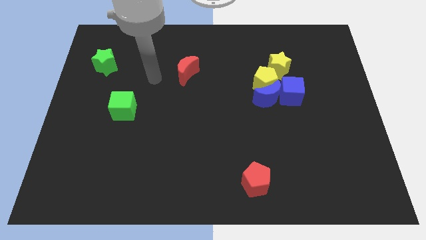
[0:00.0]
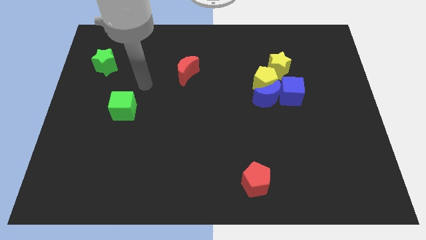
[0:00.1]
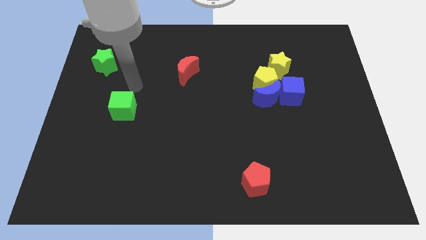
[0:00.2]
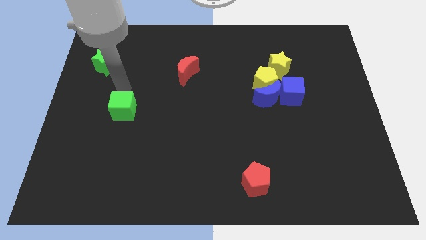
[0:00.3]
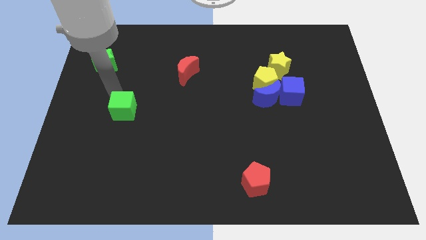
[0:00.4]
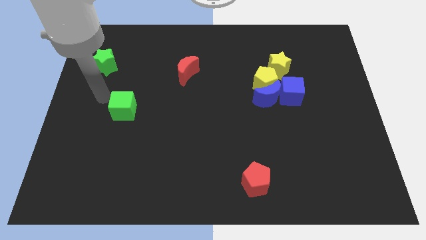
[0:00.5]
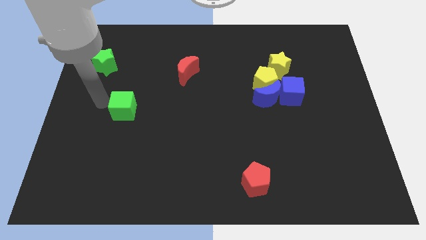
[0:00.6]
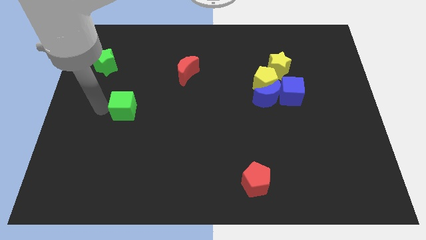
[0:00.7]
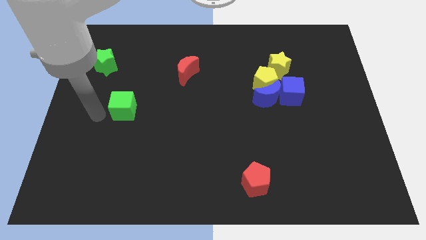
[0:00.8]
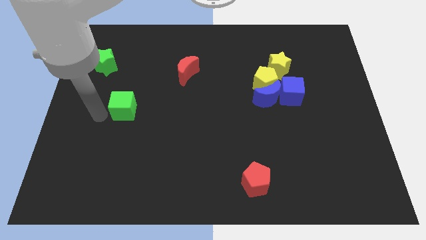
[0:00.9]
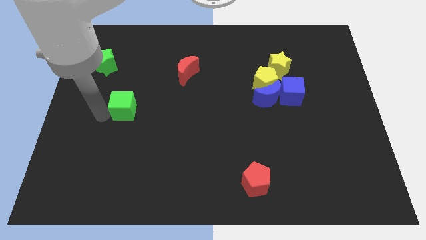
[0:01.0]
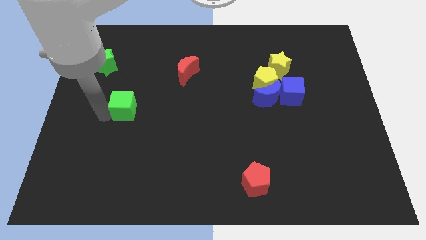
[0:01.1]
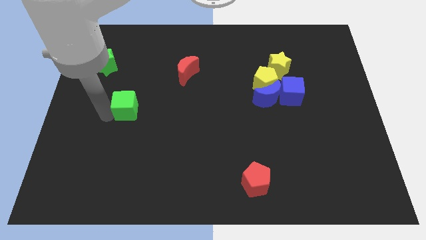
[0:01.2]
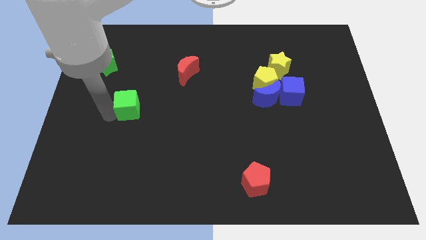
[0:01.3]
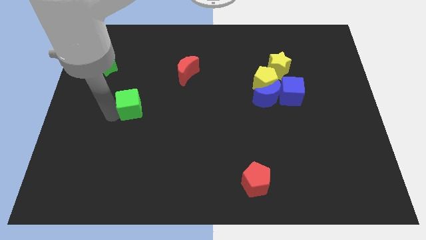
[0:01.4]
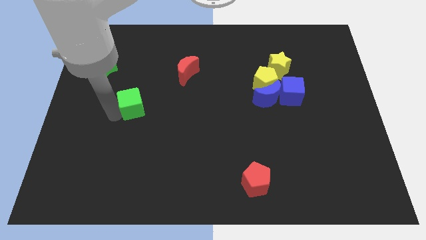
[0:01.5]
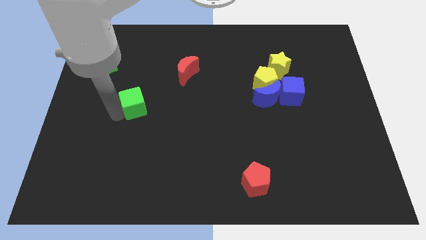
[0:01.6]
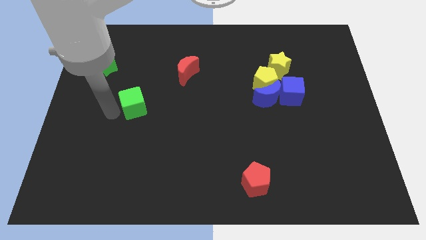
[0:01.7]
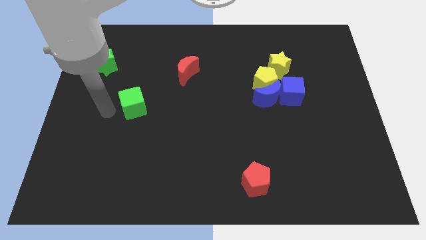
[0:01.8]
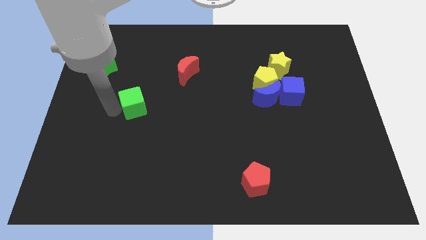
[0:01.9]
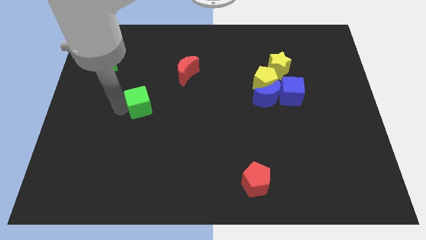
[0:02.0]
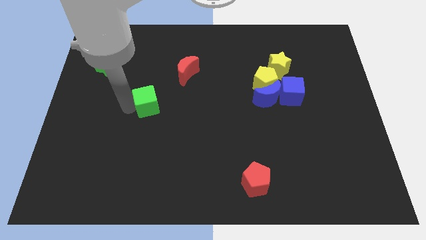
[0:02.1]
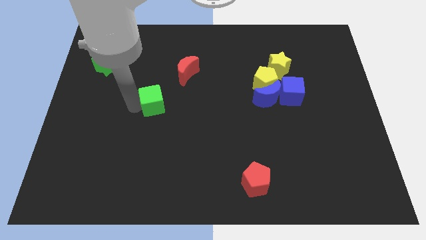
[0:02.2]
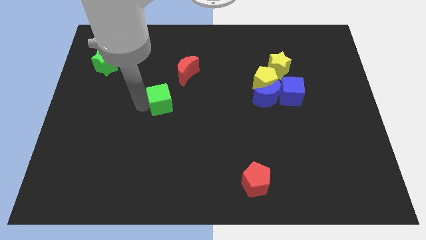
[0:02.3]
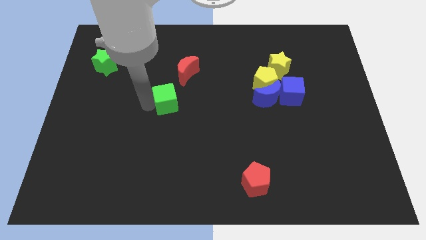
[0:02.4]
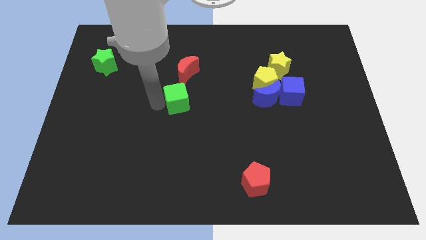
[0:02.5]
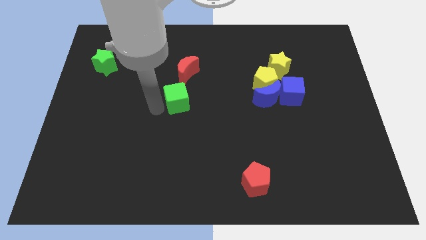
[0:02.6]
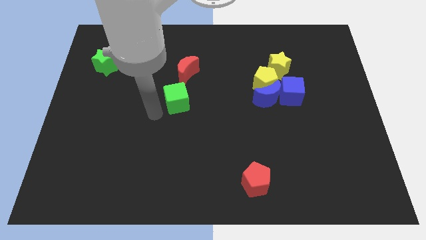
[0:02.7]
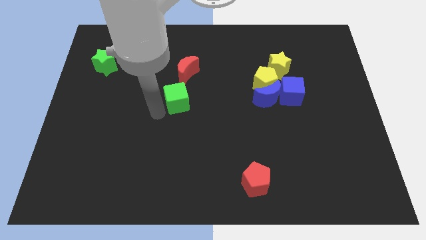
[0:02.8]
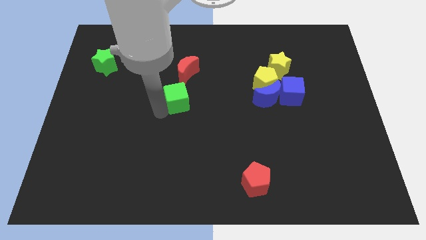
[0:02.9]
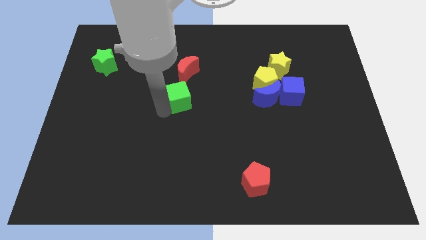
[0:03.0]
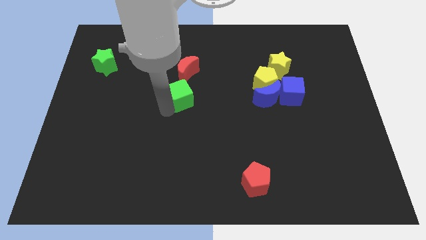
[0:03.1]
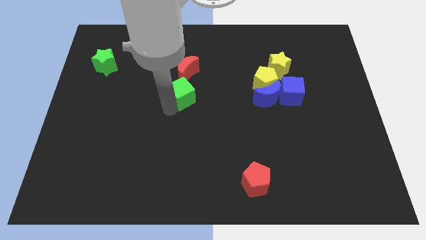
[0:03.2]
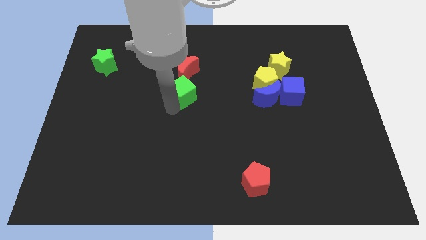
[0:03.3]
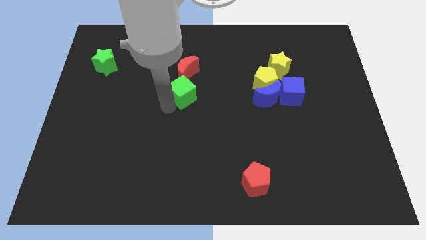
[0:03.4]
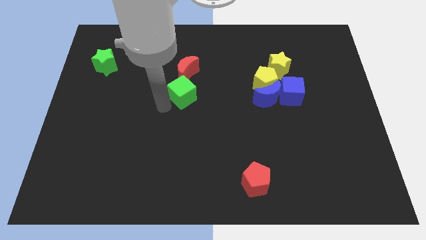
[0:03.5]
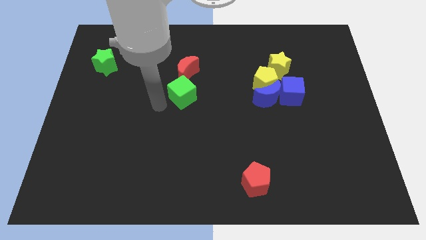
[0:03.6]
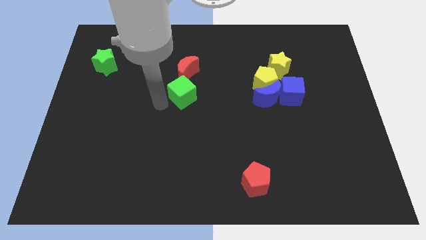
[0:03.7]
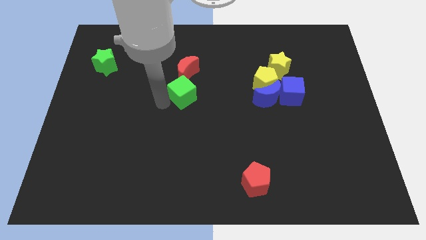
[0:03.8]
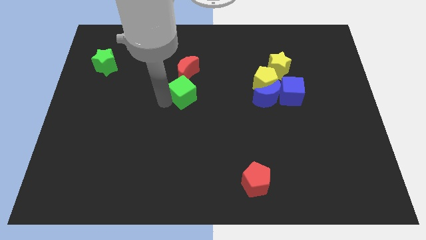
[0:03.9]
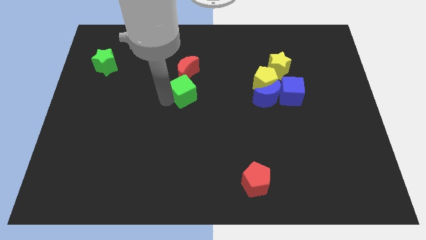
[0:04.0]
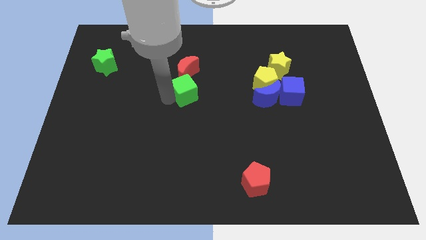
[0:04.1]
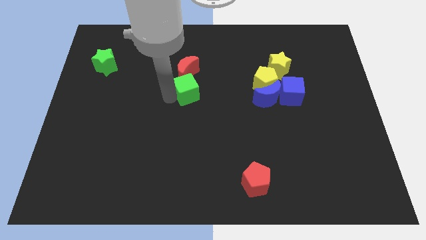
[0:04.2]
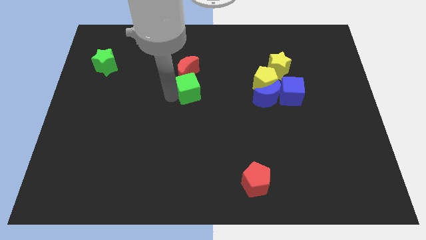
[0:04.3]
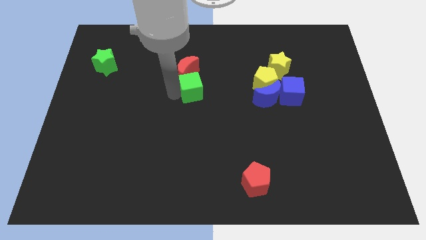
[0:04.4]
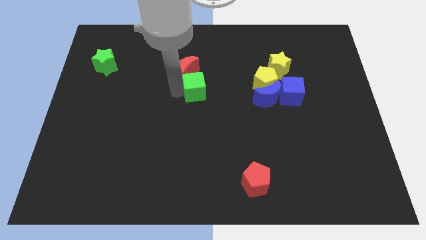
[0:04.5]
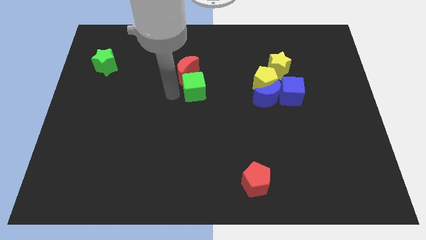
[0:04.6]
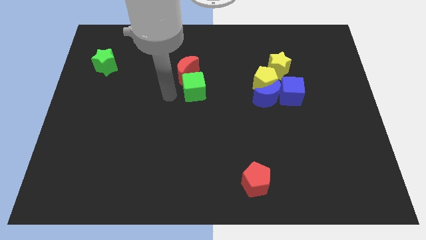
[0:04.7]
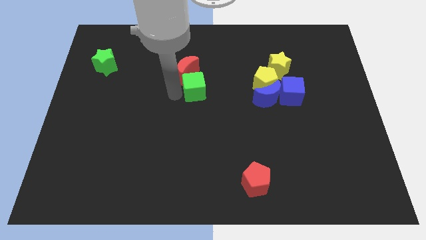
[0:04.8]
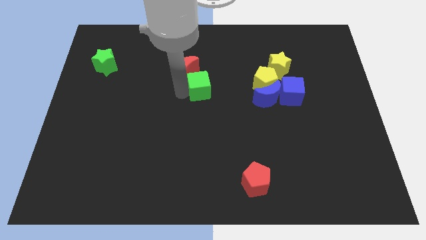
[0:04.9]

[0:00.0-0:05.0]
slide the green cube to the left side of the yellow pentagon
